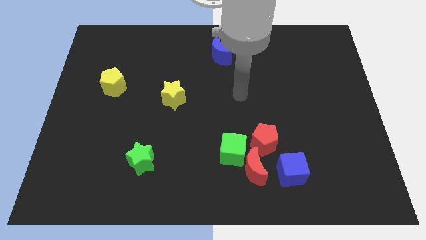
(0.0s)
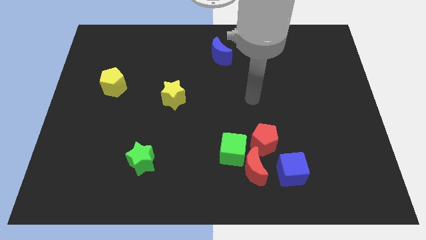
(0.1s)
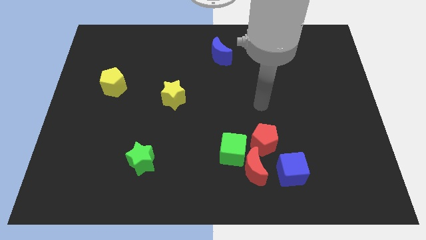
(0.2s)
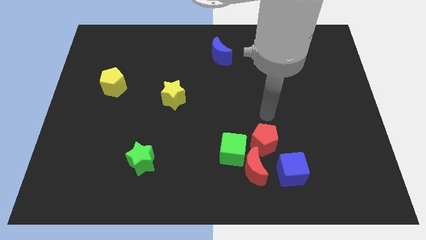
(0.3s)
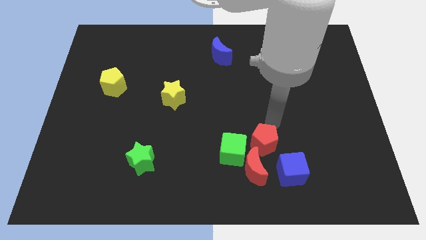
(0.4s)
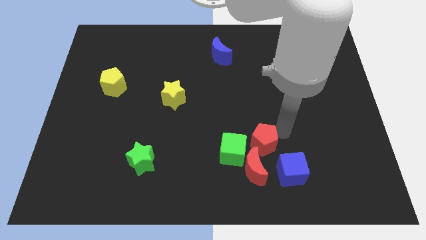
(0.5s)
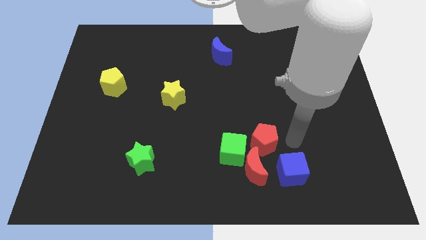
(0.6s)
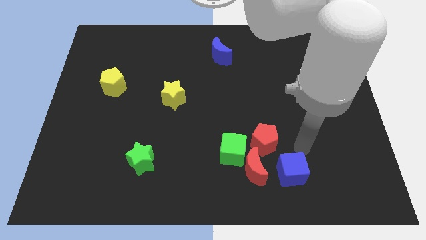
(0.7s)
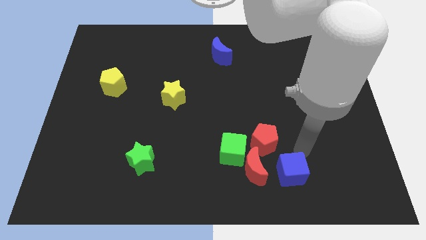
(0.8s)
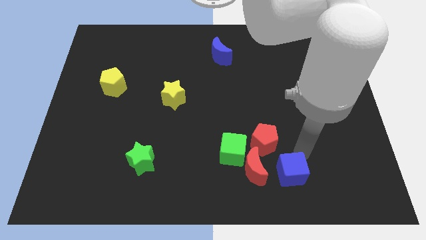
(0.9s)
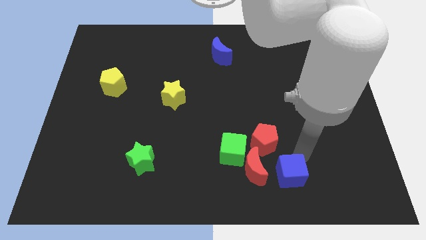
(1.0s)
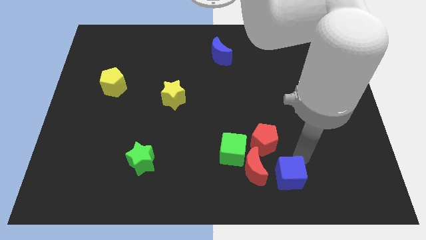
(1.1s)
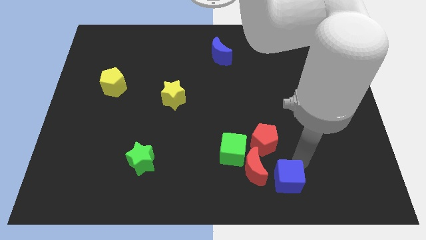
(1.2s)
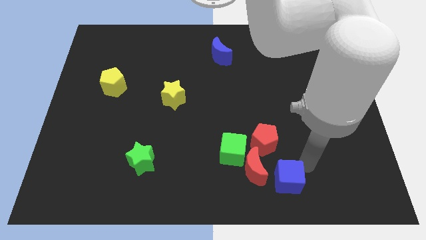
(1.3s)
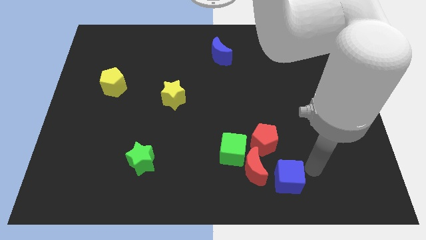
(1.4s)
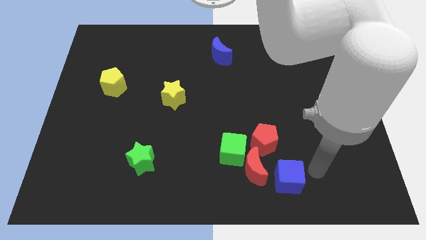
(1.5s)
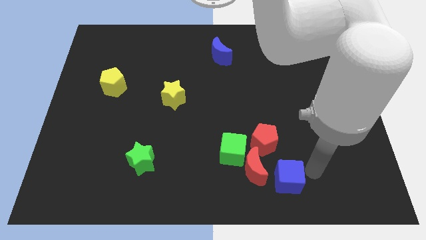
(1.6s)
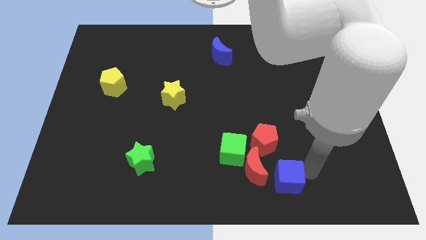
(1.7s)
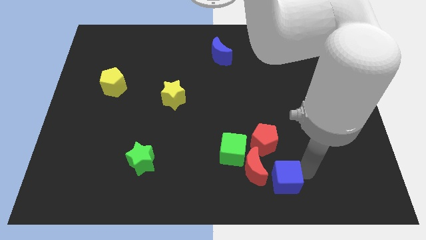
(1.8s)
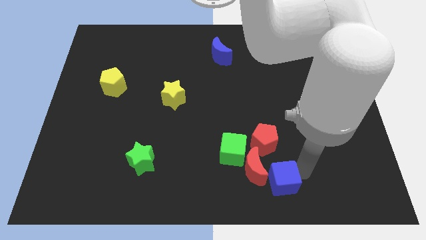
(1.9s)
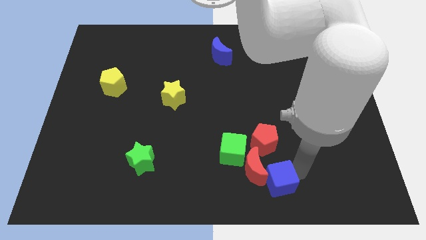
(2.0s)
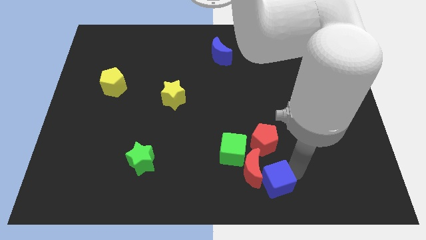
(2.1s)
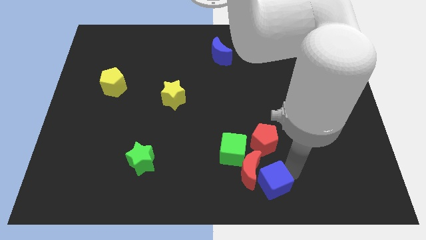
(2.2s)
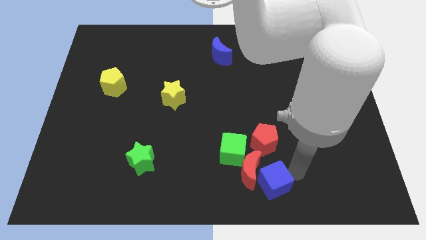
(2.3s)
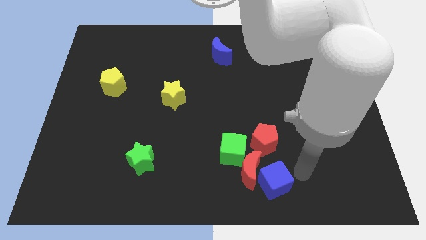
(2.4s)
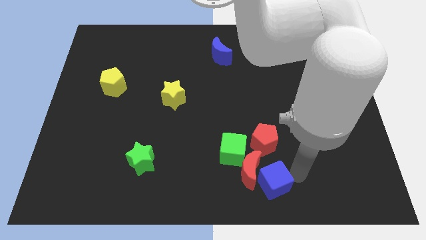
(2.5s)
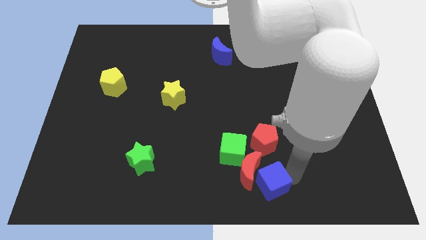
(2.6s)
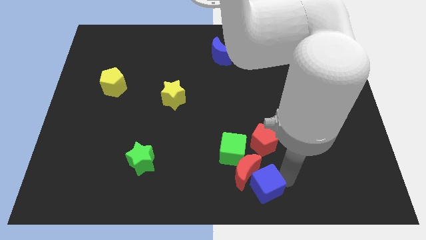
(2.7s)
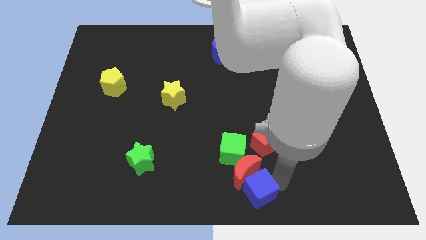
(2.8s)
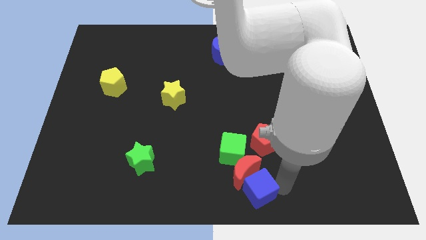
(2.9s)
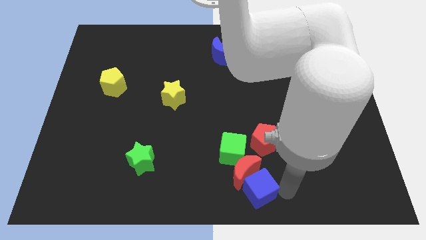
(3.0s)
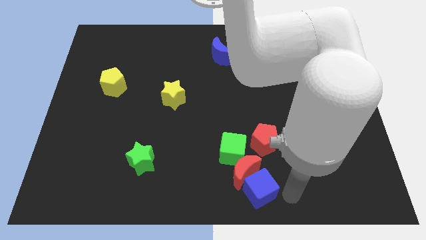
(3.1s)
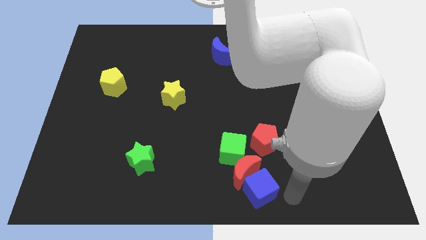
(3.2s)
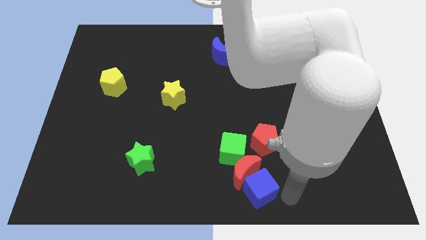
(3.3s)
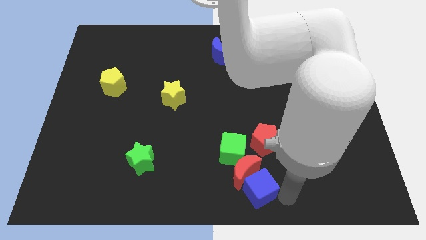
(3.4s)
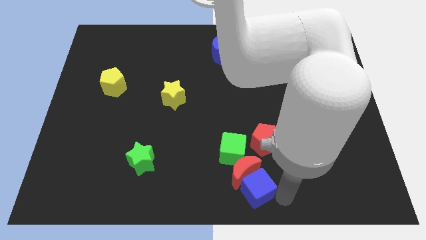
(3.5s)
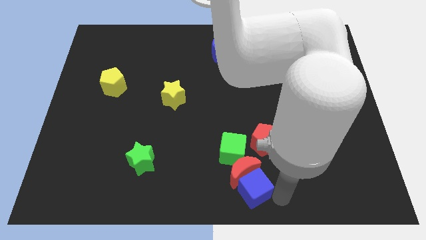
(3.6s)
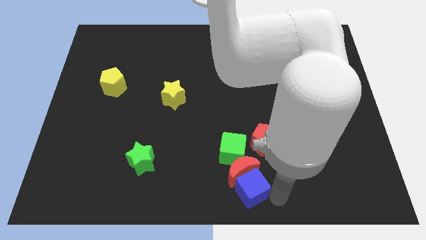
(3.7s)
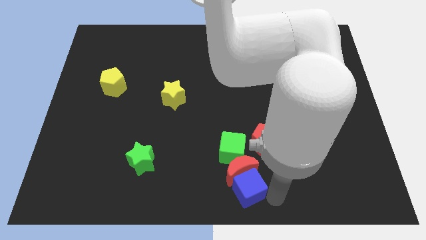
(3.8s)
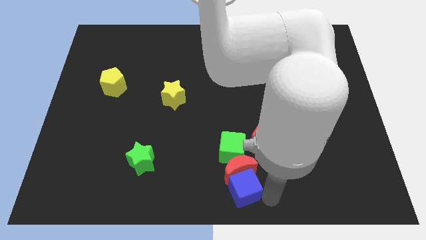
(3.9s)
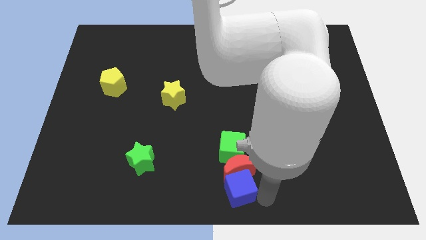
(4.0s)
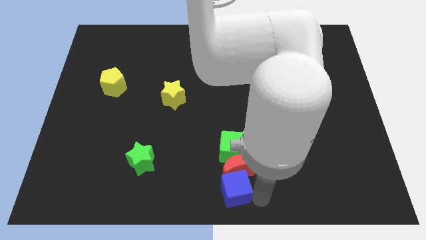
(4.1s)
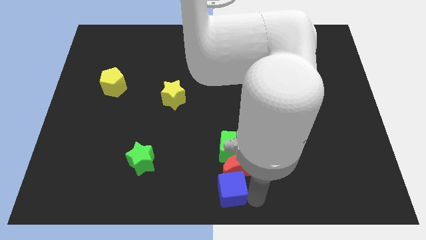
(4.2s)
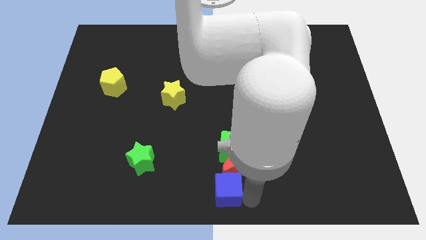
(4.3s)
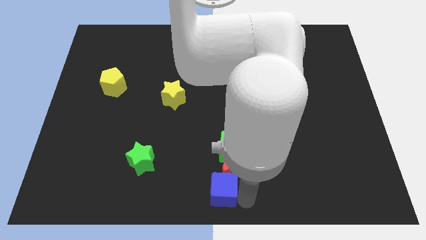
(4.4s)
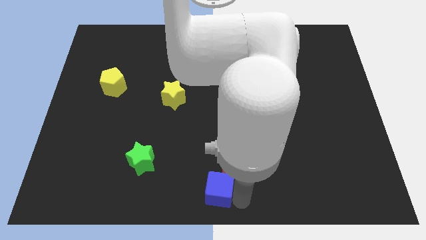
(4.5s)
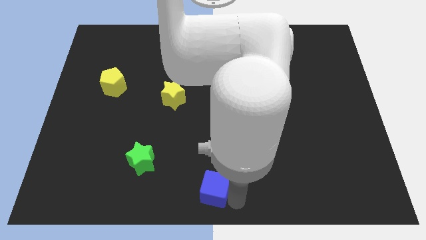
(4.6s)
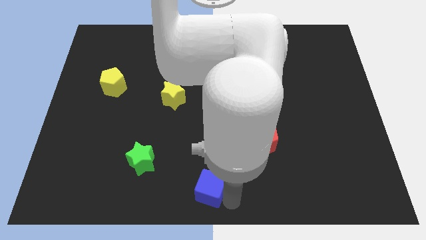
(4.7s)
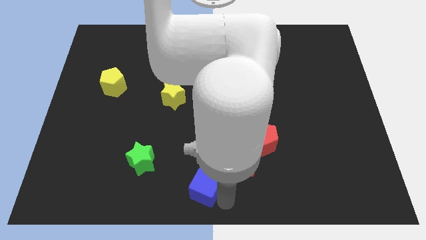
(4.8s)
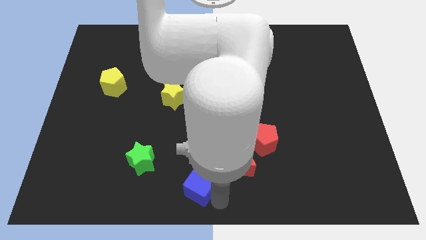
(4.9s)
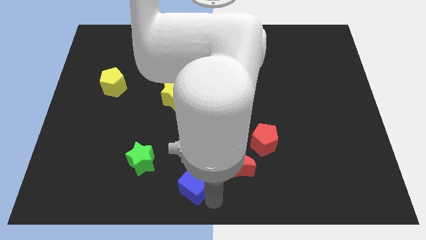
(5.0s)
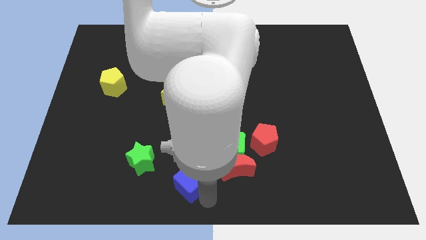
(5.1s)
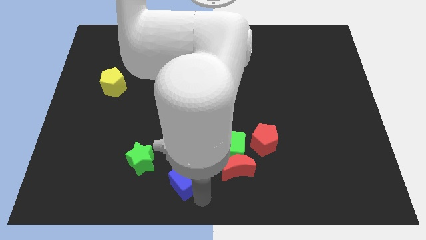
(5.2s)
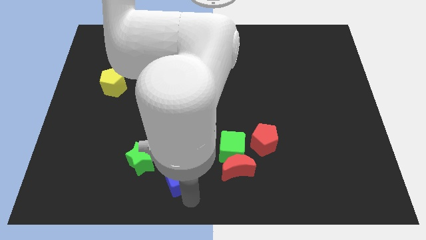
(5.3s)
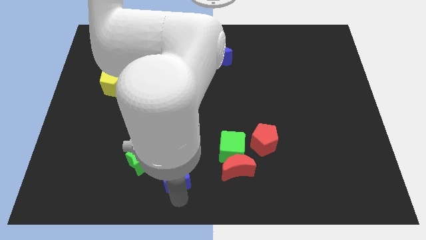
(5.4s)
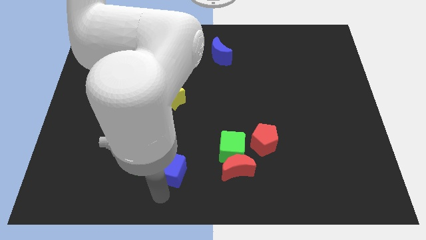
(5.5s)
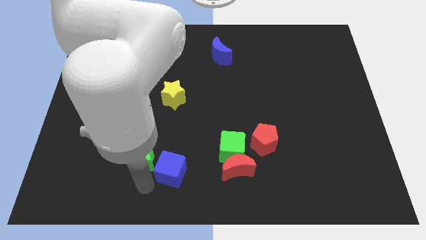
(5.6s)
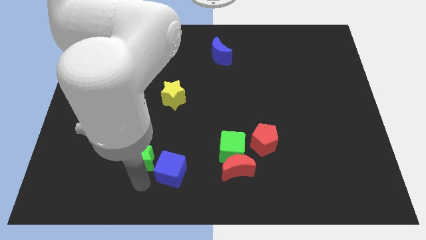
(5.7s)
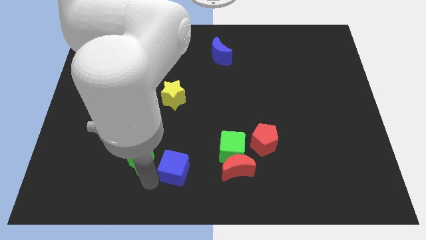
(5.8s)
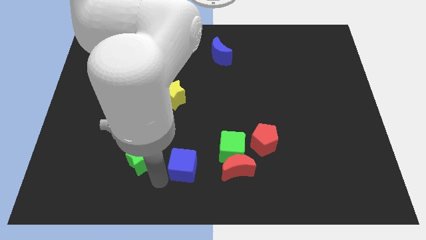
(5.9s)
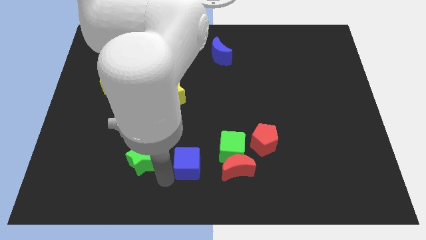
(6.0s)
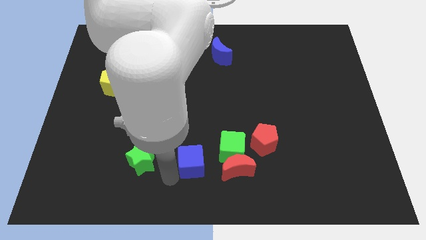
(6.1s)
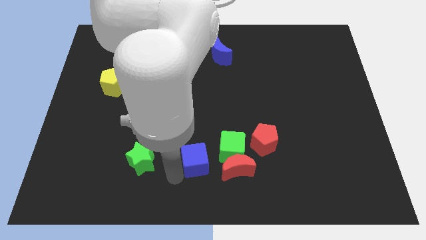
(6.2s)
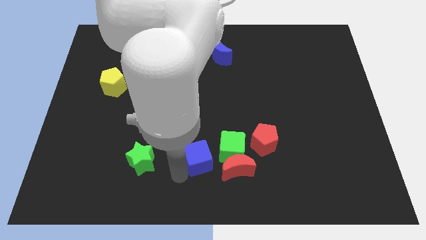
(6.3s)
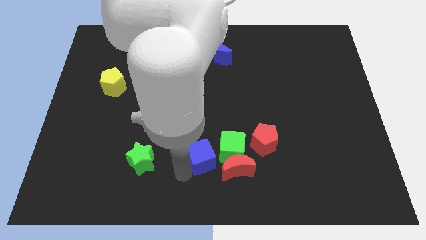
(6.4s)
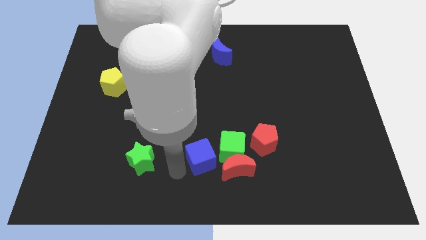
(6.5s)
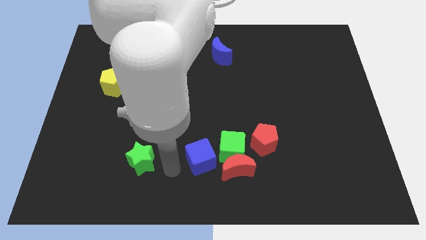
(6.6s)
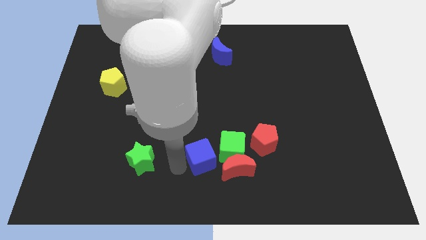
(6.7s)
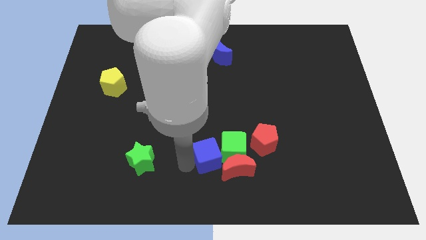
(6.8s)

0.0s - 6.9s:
slide the blue cube towards the green cube
